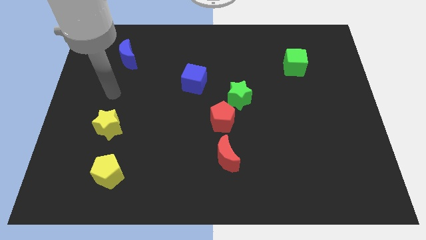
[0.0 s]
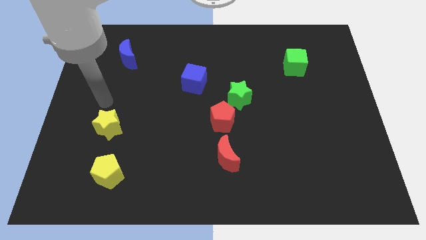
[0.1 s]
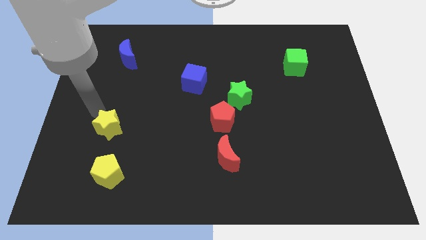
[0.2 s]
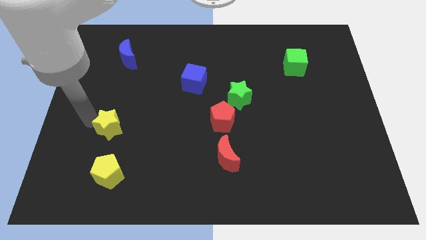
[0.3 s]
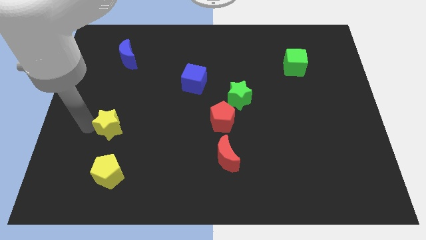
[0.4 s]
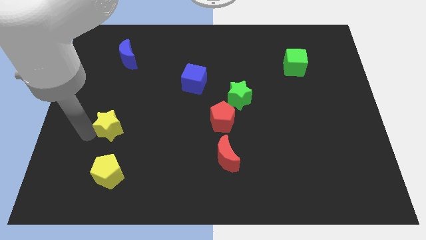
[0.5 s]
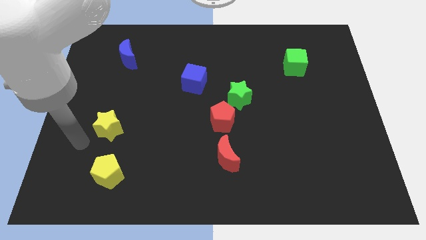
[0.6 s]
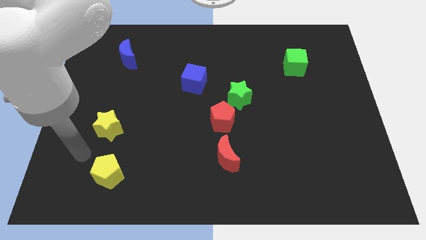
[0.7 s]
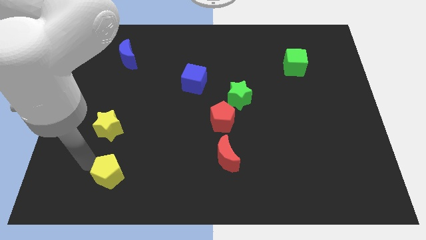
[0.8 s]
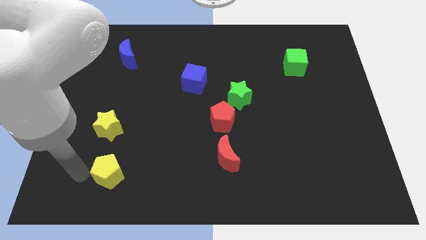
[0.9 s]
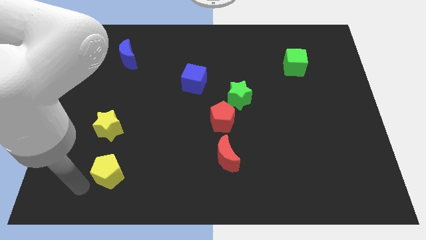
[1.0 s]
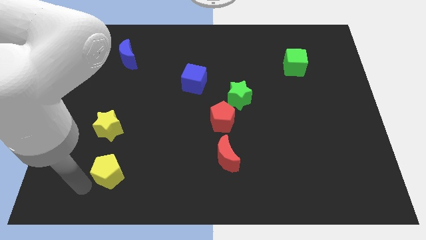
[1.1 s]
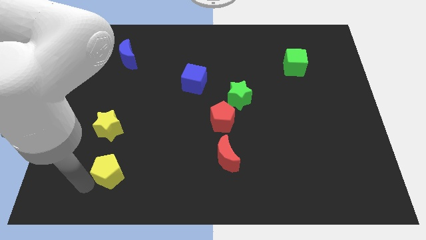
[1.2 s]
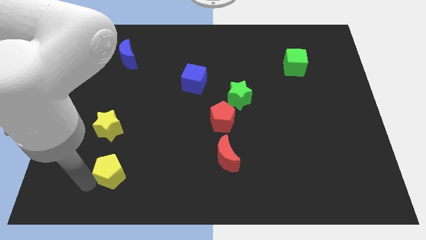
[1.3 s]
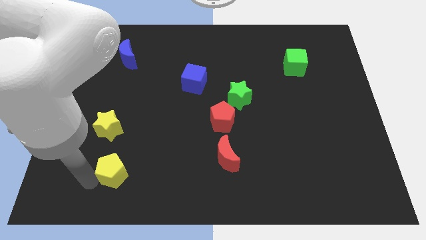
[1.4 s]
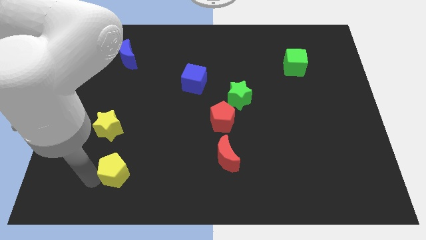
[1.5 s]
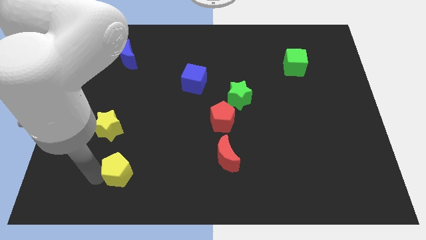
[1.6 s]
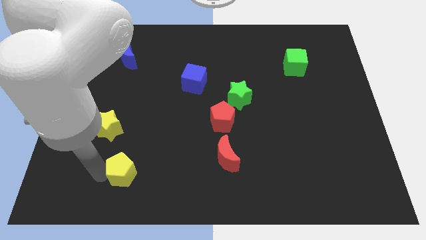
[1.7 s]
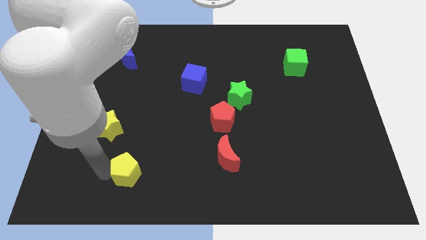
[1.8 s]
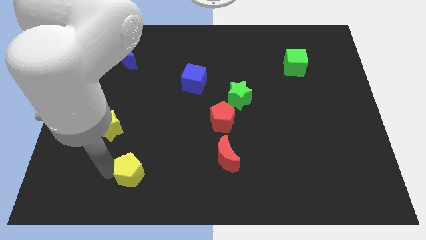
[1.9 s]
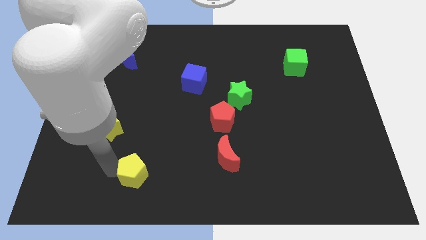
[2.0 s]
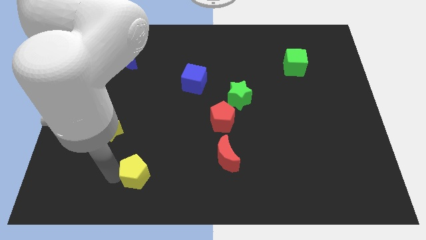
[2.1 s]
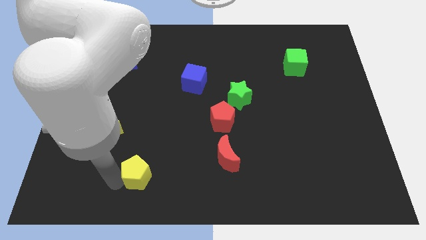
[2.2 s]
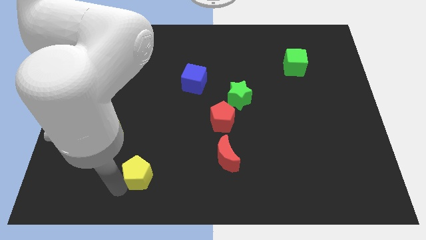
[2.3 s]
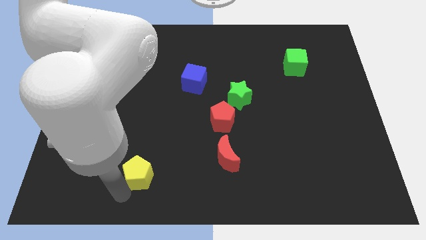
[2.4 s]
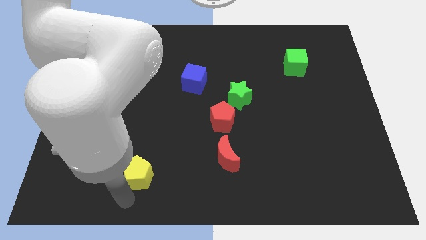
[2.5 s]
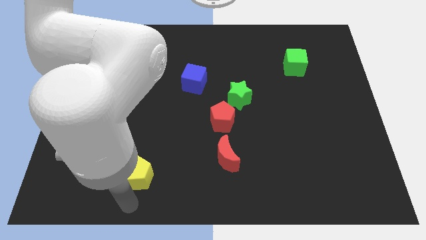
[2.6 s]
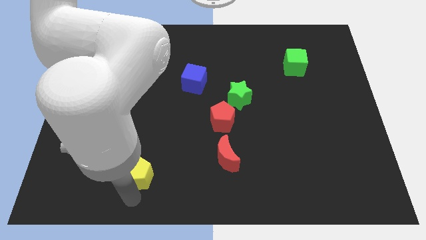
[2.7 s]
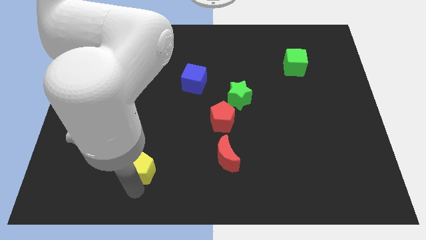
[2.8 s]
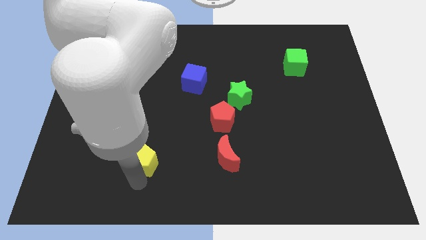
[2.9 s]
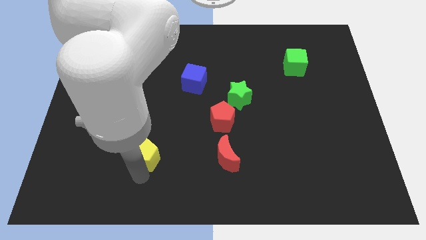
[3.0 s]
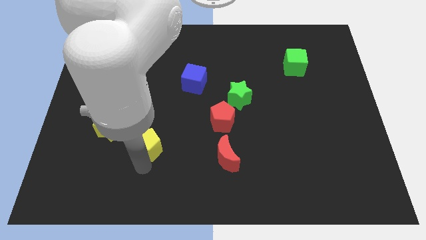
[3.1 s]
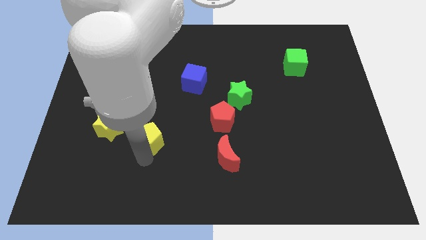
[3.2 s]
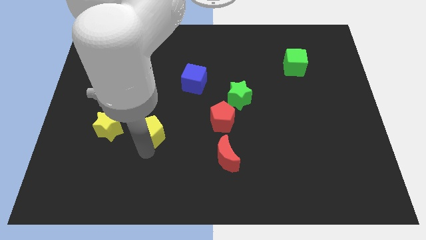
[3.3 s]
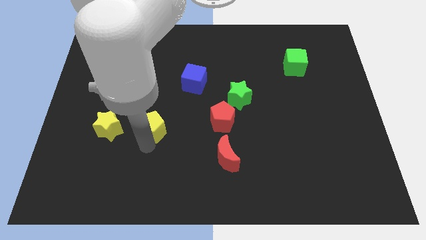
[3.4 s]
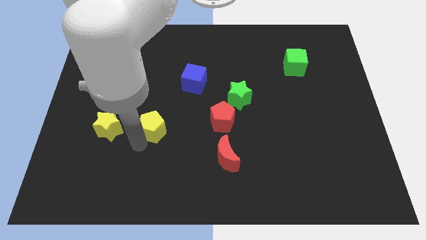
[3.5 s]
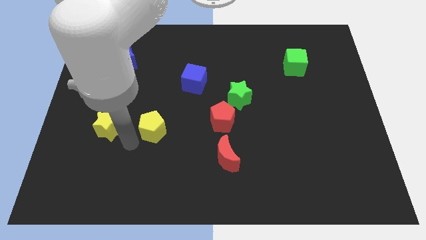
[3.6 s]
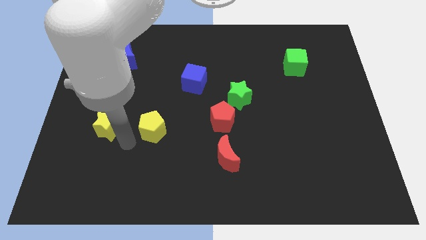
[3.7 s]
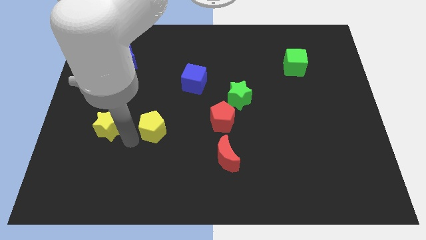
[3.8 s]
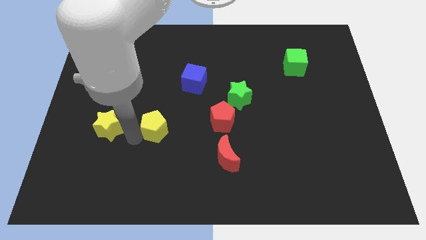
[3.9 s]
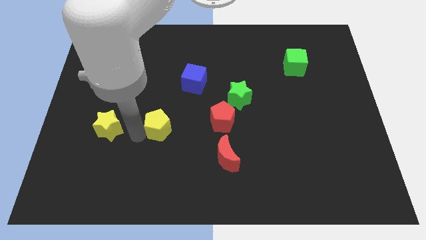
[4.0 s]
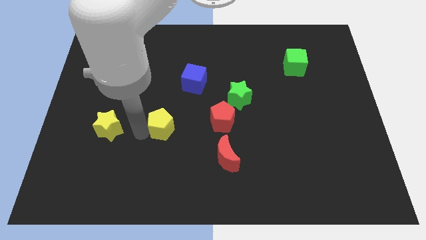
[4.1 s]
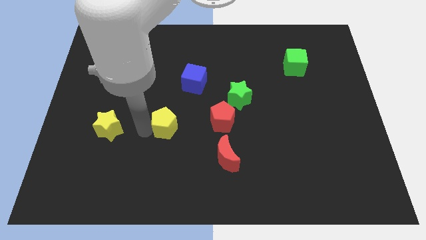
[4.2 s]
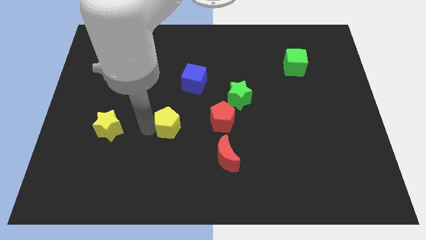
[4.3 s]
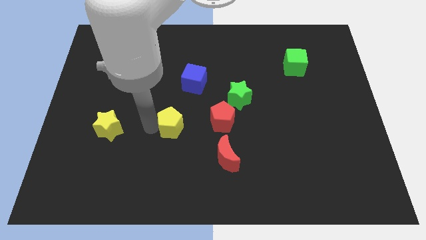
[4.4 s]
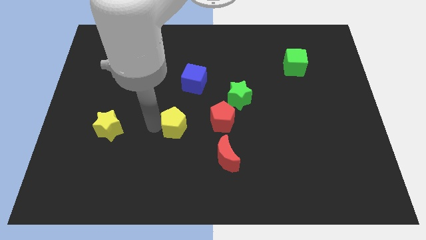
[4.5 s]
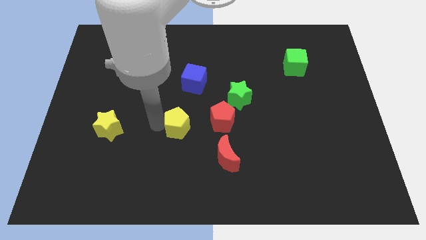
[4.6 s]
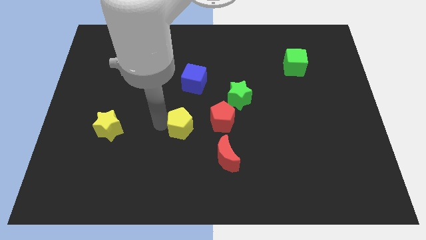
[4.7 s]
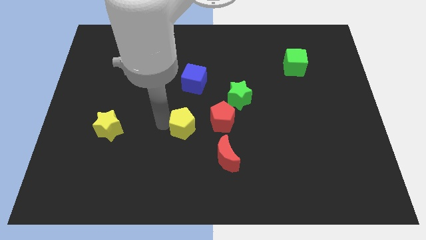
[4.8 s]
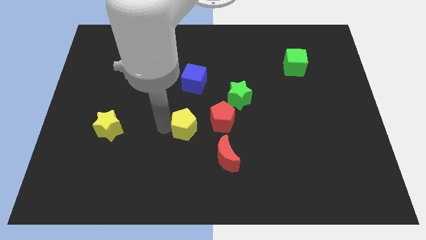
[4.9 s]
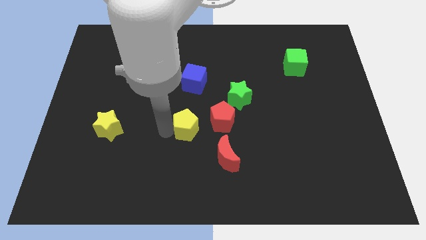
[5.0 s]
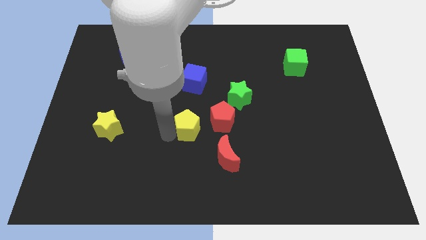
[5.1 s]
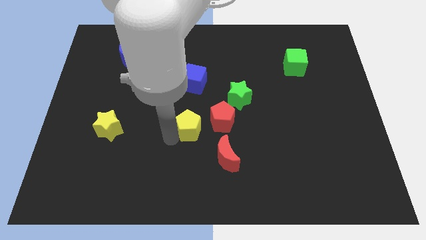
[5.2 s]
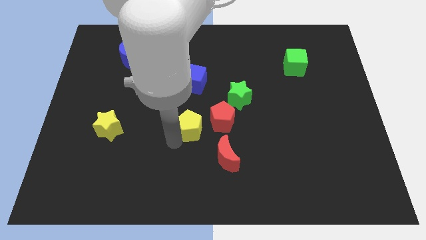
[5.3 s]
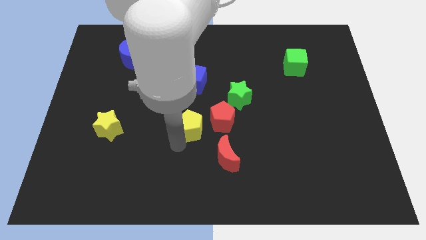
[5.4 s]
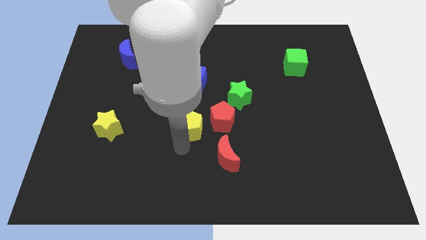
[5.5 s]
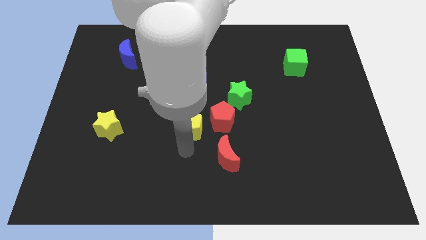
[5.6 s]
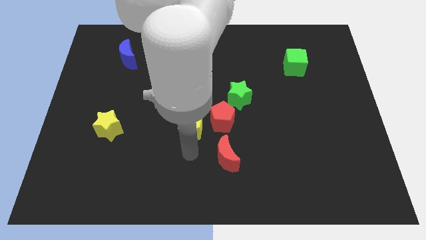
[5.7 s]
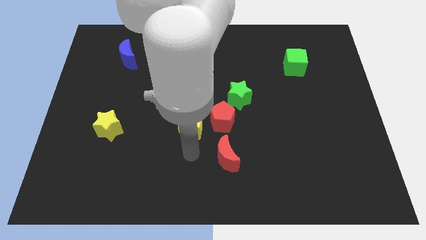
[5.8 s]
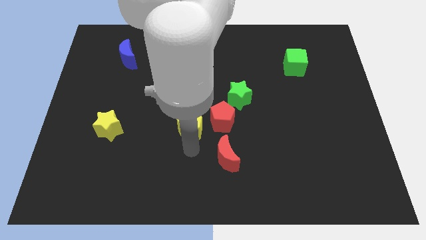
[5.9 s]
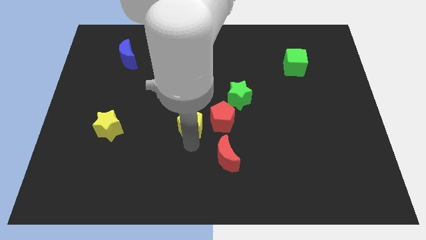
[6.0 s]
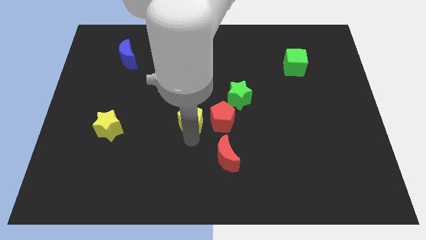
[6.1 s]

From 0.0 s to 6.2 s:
move the yellow pentagon up and then right

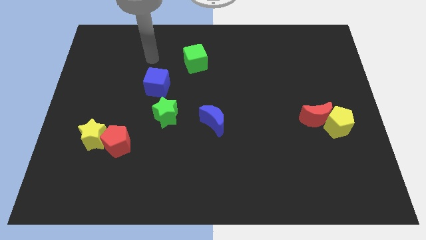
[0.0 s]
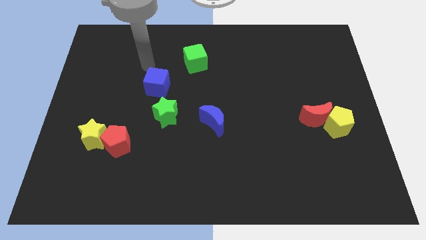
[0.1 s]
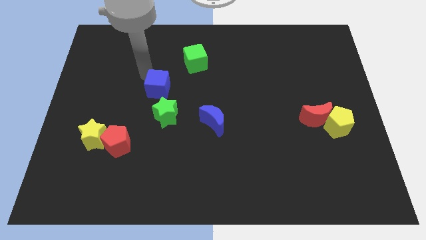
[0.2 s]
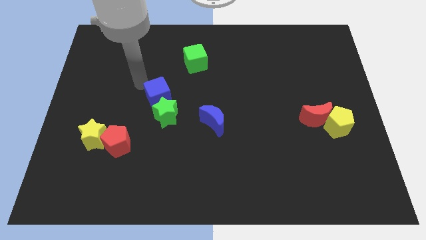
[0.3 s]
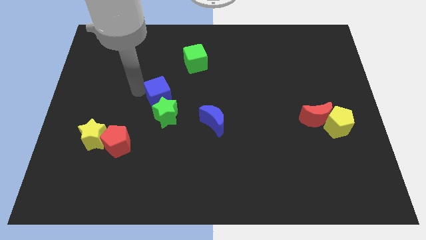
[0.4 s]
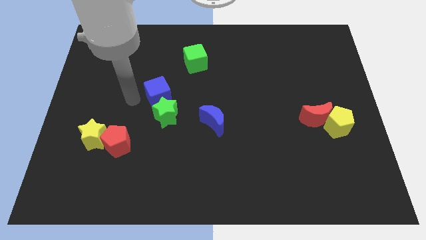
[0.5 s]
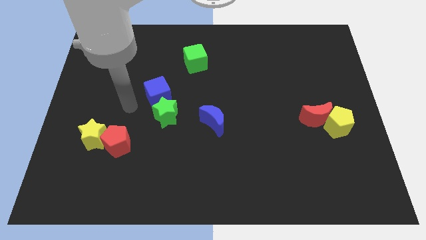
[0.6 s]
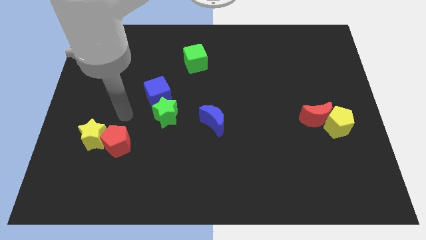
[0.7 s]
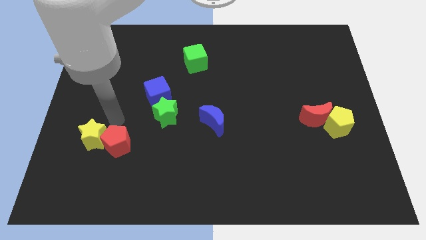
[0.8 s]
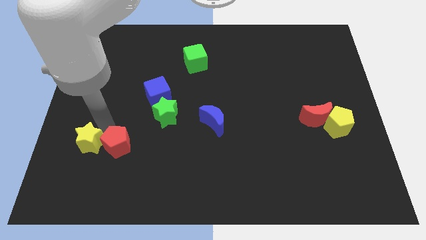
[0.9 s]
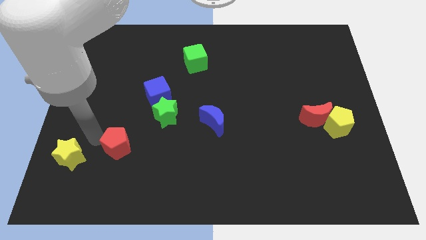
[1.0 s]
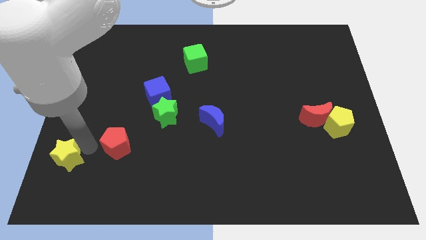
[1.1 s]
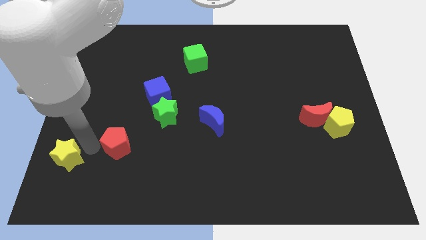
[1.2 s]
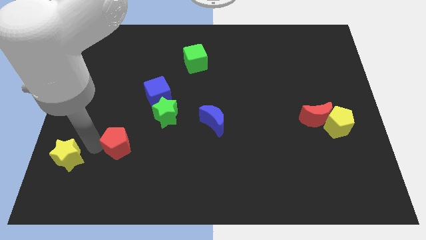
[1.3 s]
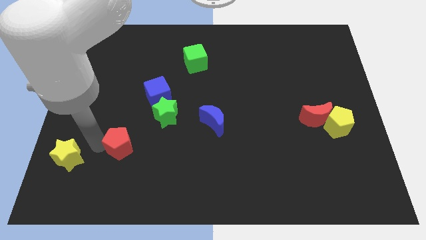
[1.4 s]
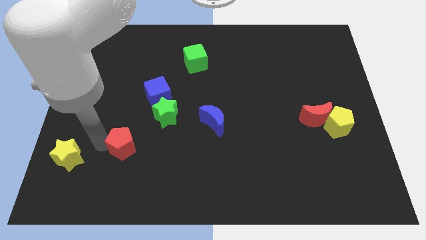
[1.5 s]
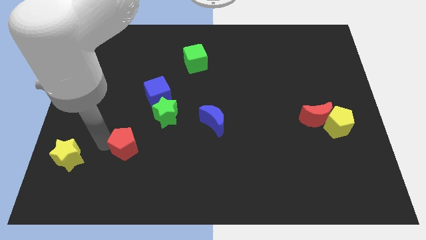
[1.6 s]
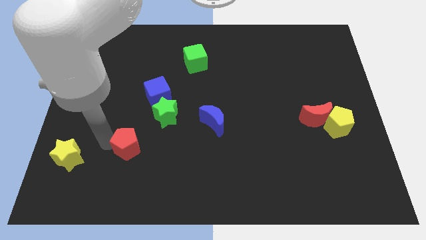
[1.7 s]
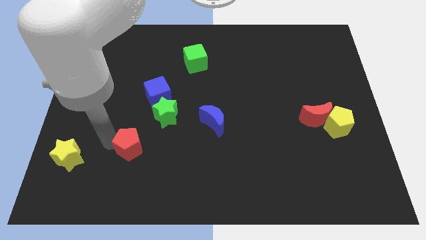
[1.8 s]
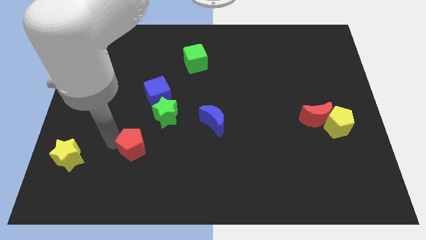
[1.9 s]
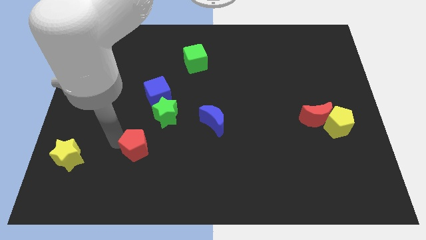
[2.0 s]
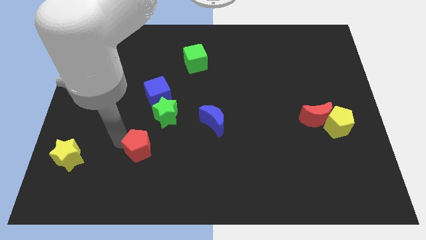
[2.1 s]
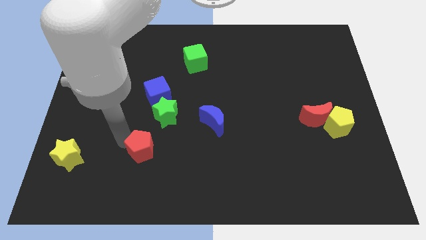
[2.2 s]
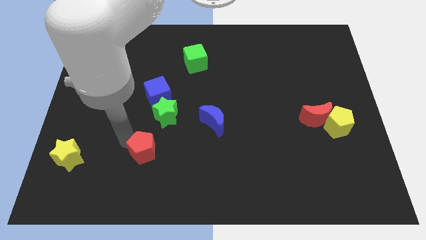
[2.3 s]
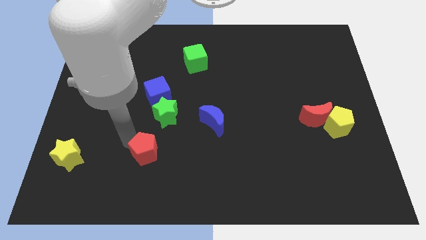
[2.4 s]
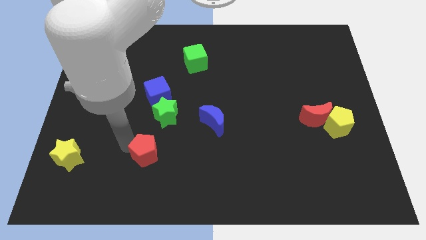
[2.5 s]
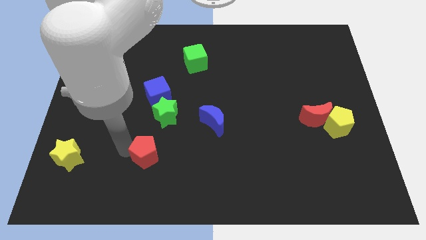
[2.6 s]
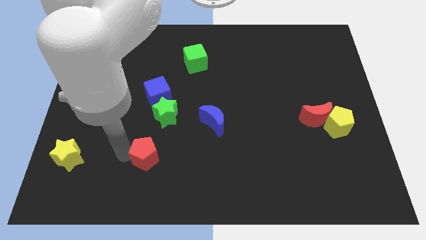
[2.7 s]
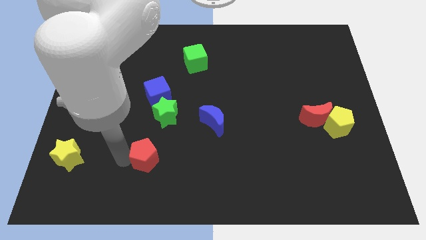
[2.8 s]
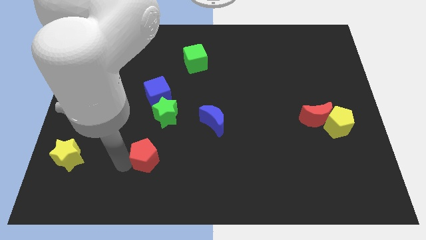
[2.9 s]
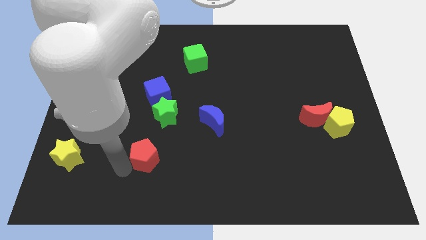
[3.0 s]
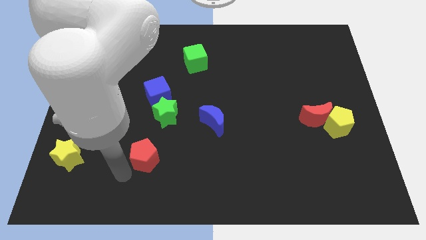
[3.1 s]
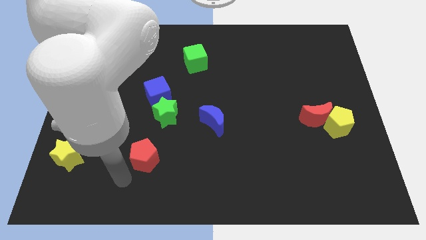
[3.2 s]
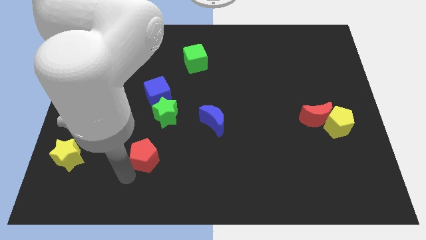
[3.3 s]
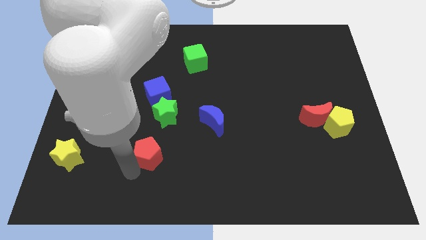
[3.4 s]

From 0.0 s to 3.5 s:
slide the red pentagon a bit to the right
